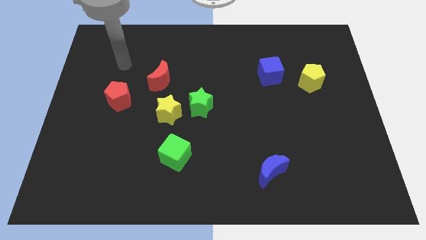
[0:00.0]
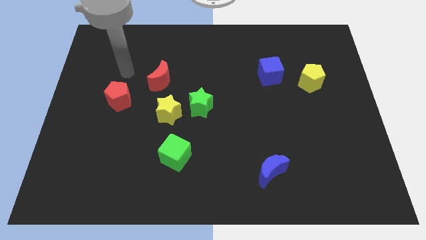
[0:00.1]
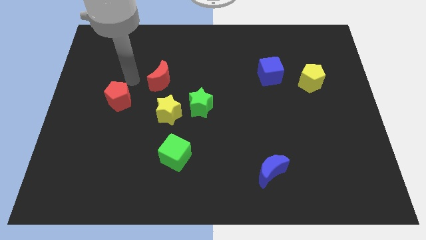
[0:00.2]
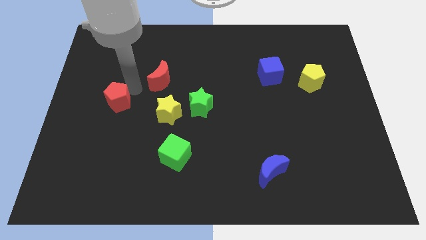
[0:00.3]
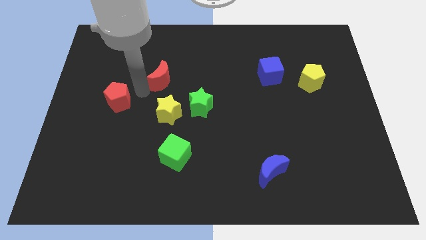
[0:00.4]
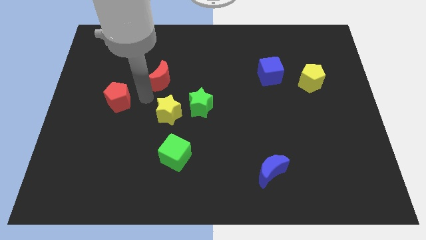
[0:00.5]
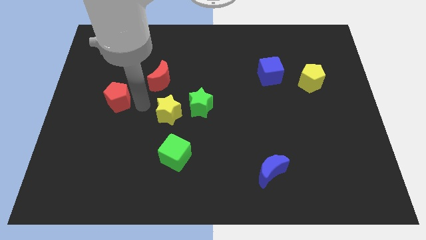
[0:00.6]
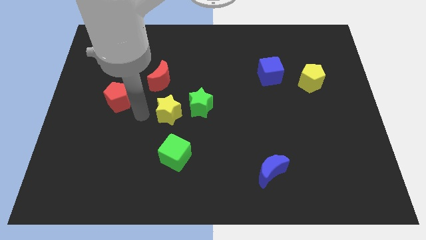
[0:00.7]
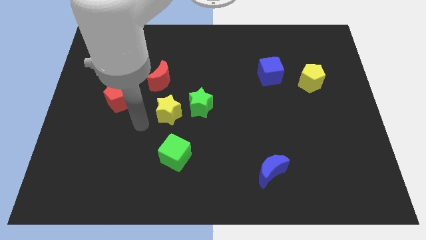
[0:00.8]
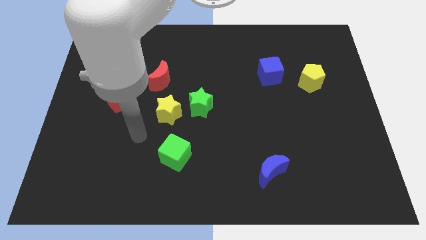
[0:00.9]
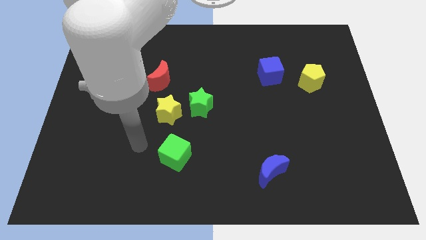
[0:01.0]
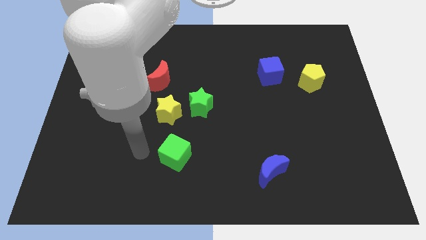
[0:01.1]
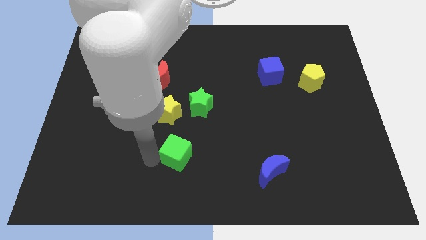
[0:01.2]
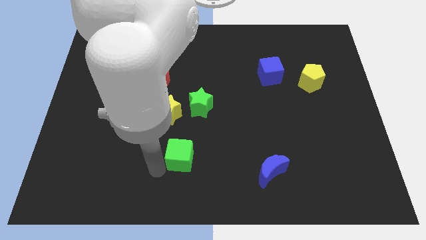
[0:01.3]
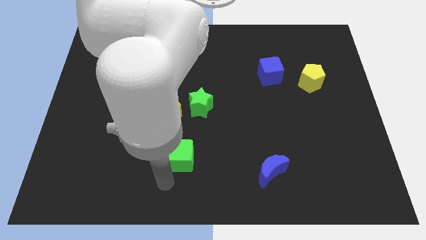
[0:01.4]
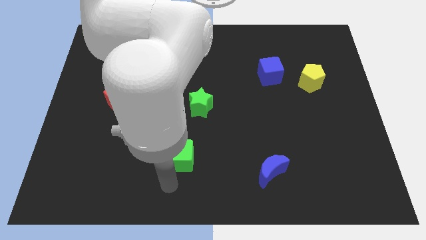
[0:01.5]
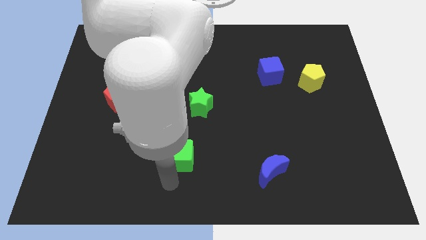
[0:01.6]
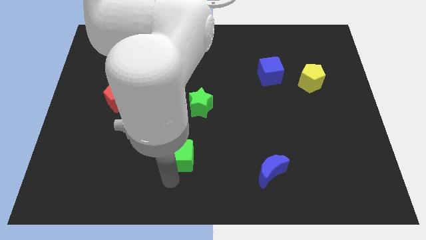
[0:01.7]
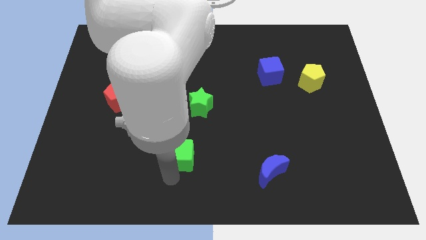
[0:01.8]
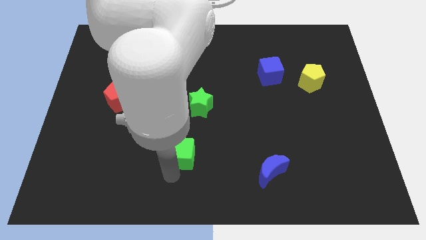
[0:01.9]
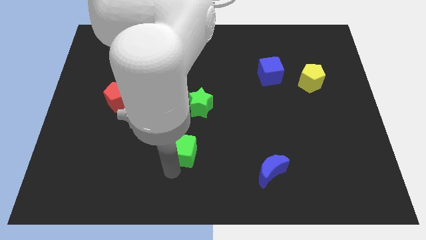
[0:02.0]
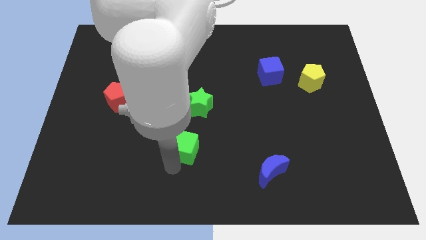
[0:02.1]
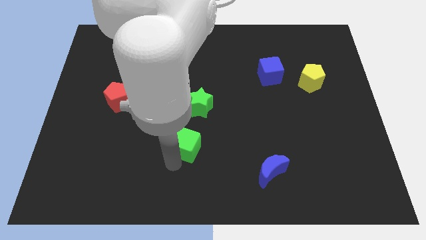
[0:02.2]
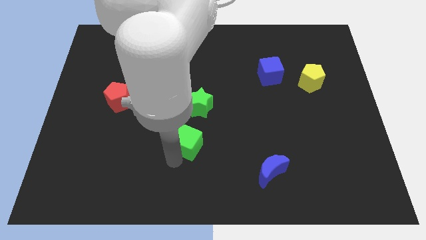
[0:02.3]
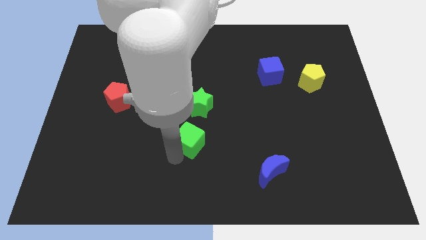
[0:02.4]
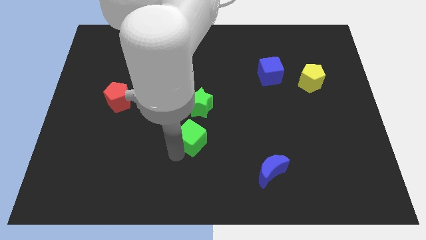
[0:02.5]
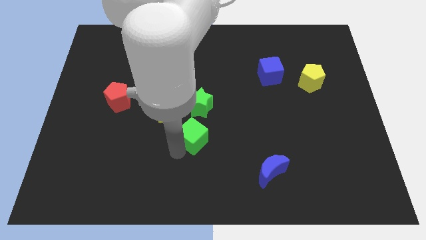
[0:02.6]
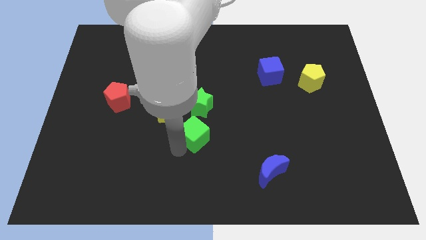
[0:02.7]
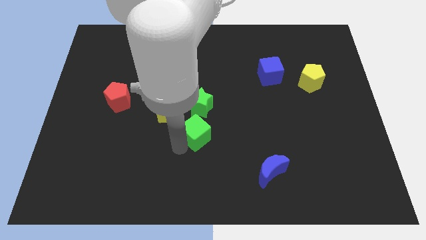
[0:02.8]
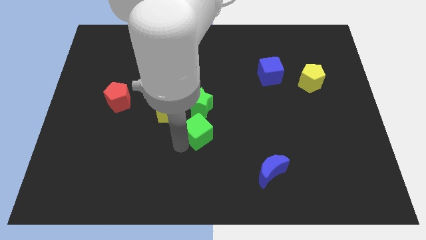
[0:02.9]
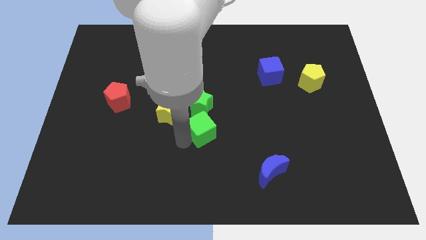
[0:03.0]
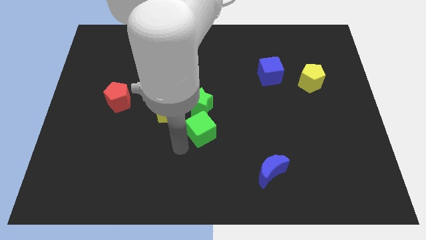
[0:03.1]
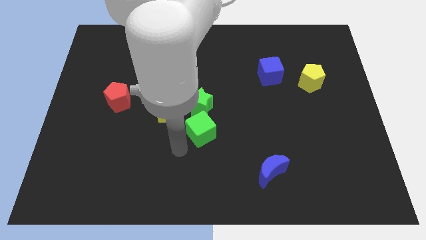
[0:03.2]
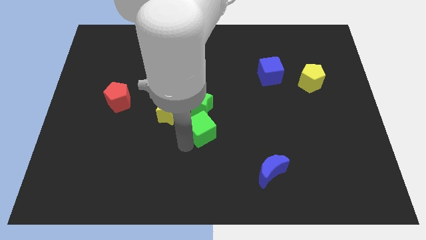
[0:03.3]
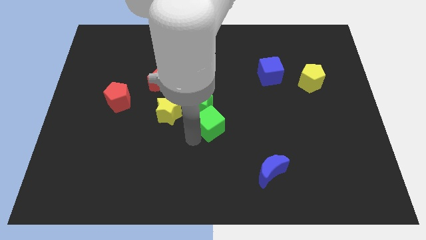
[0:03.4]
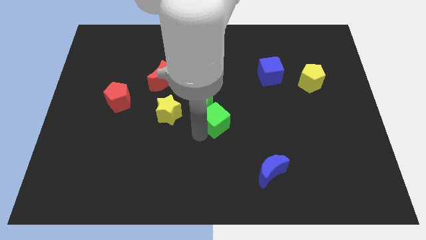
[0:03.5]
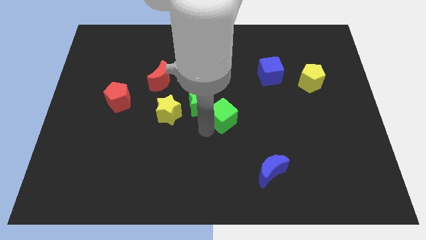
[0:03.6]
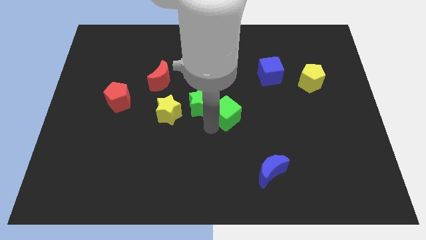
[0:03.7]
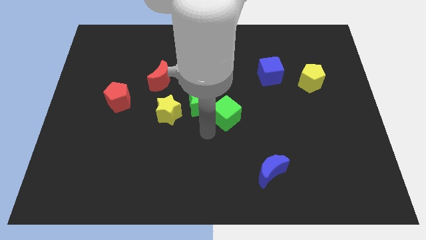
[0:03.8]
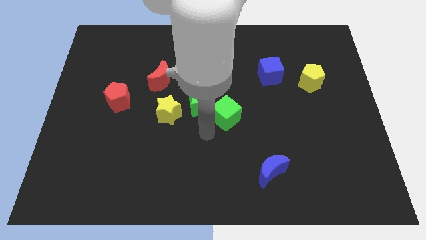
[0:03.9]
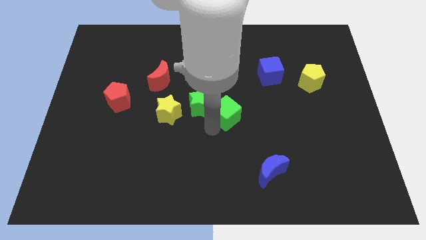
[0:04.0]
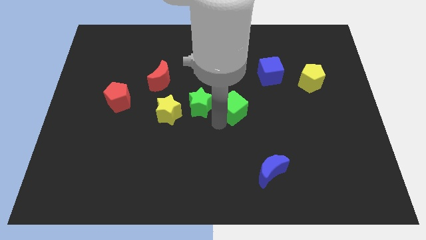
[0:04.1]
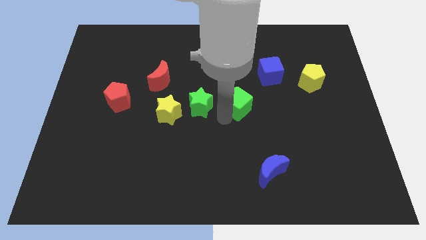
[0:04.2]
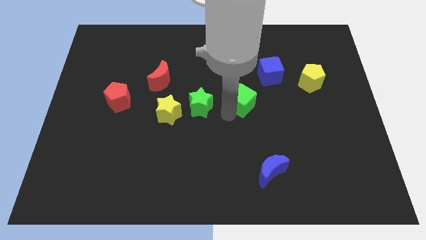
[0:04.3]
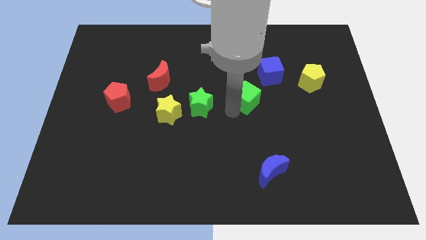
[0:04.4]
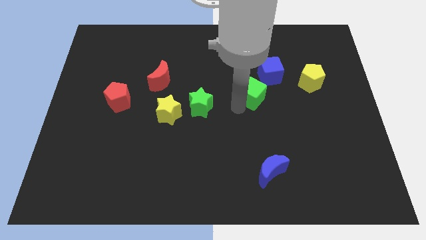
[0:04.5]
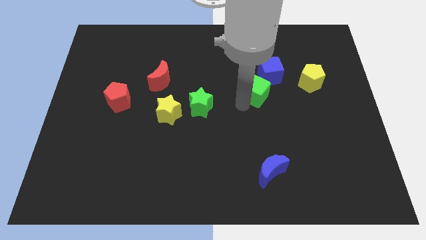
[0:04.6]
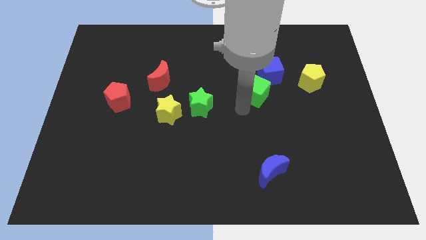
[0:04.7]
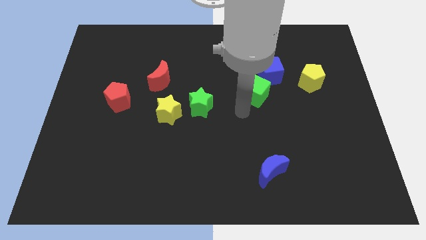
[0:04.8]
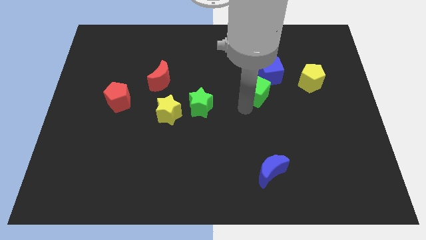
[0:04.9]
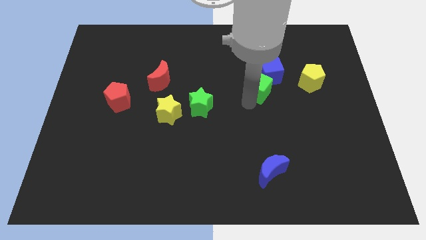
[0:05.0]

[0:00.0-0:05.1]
slide the green cube next to the blue cube

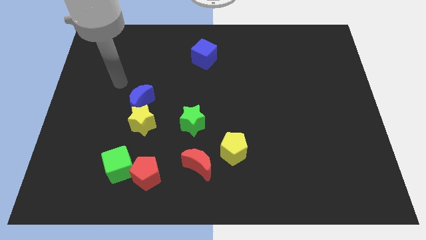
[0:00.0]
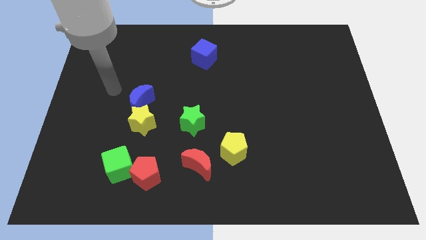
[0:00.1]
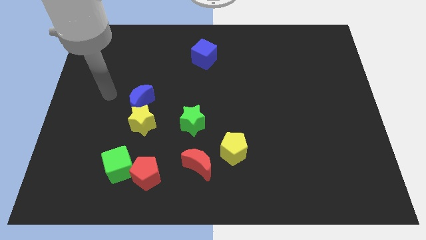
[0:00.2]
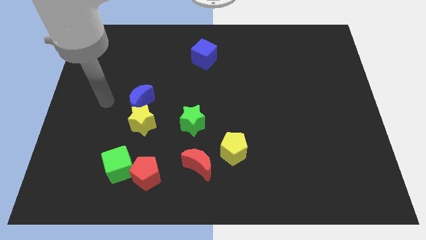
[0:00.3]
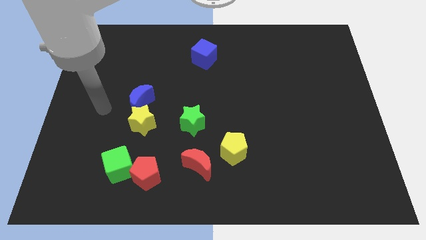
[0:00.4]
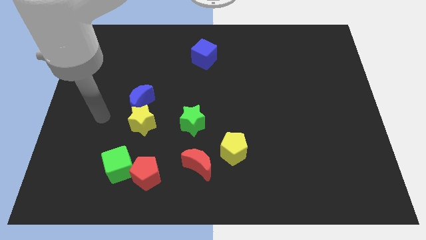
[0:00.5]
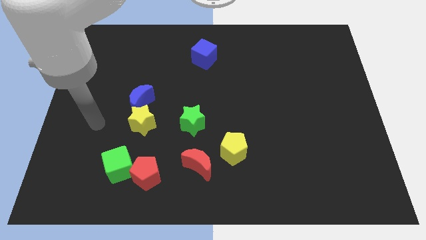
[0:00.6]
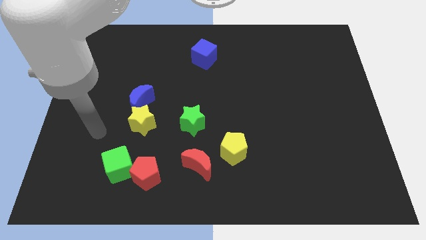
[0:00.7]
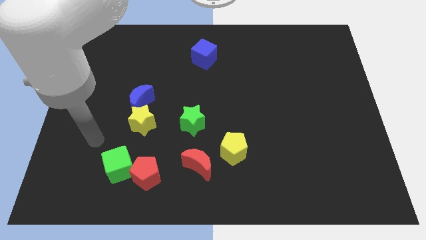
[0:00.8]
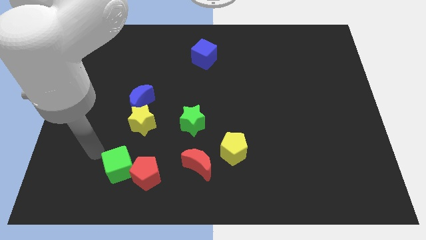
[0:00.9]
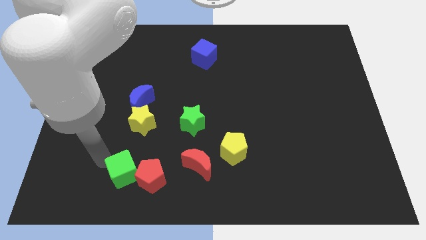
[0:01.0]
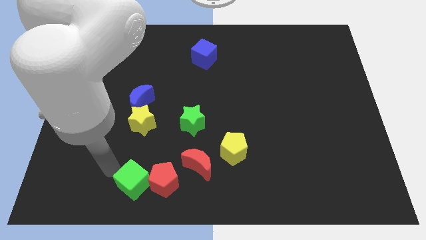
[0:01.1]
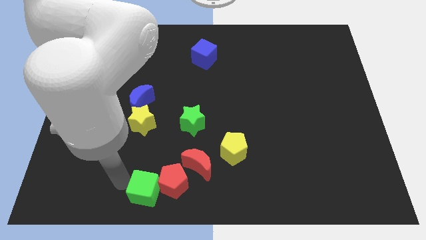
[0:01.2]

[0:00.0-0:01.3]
move the red pentagon towards the red moon

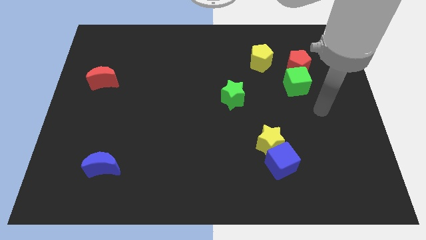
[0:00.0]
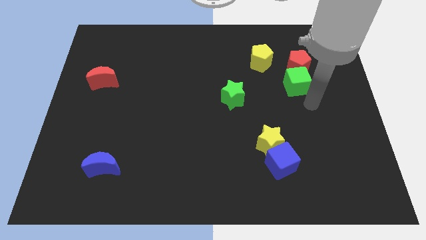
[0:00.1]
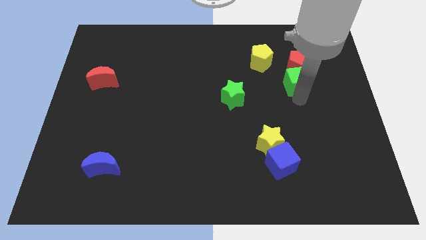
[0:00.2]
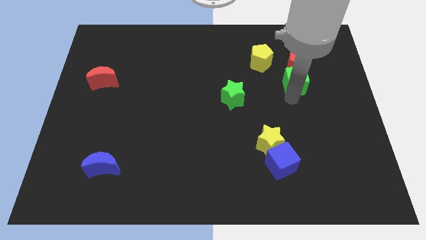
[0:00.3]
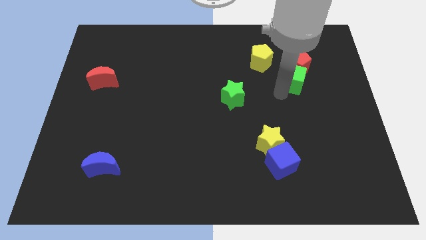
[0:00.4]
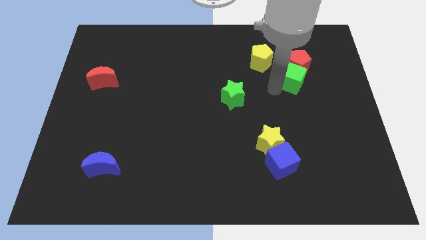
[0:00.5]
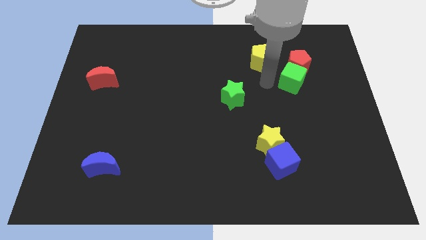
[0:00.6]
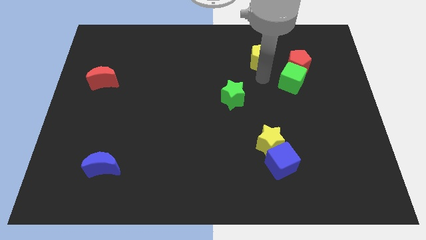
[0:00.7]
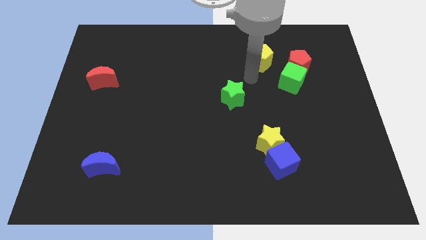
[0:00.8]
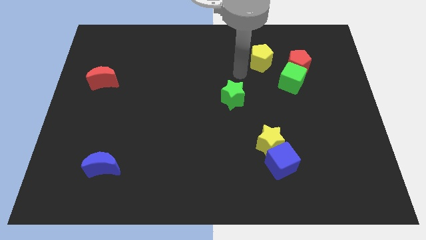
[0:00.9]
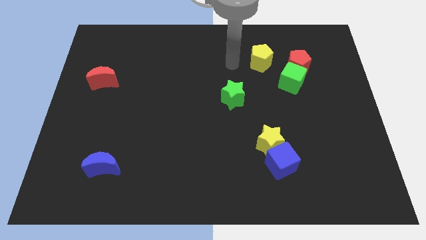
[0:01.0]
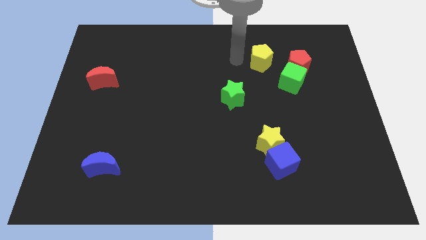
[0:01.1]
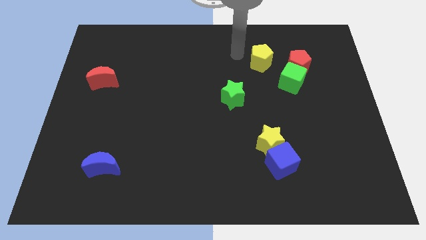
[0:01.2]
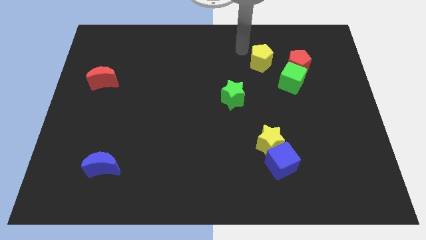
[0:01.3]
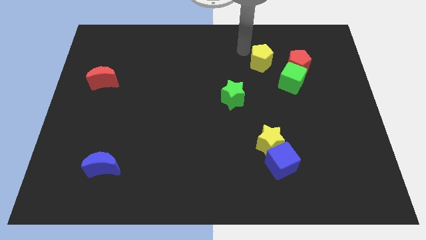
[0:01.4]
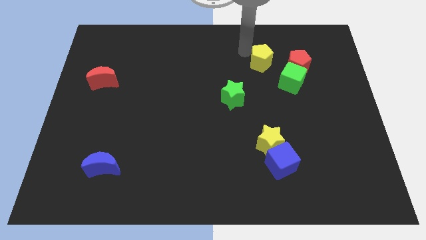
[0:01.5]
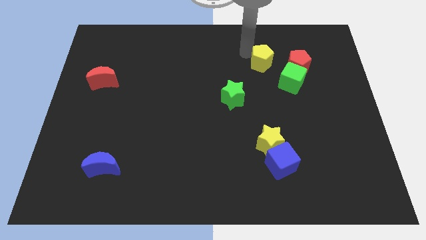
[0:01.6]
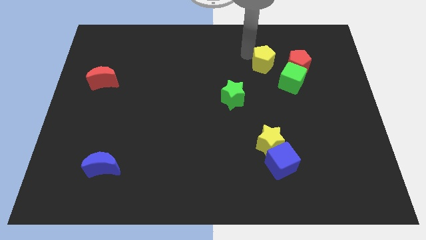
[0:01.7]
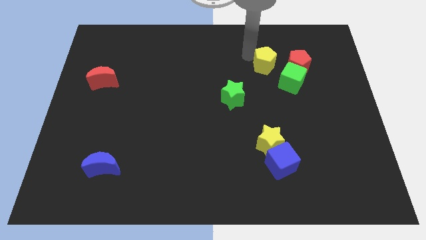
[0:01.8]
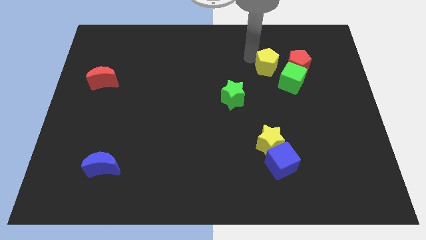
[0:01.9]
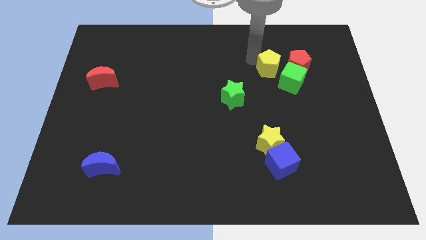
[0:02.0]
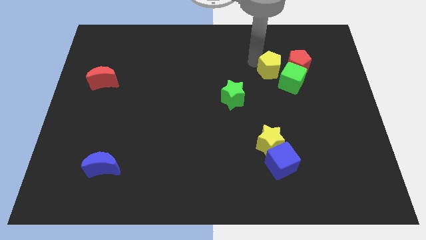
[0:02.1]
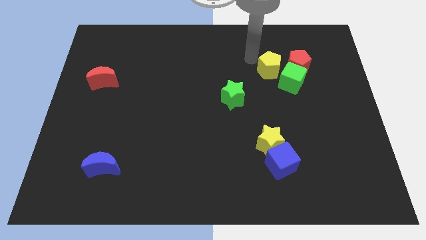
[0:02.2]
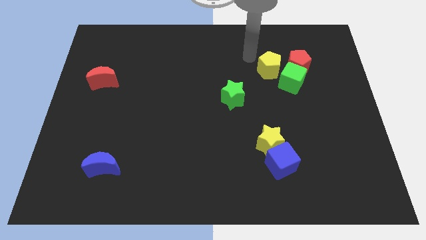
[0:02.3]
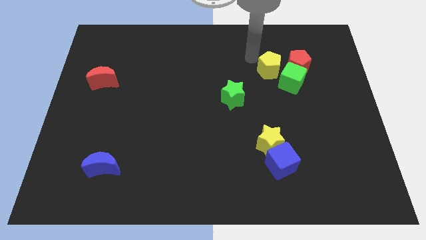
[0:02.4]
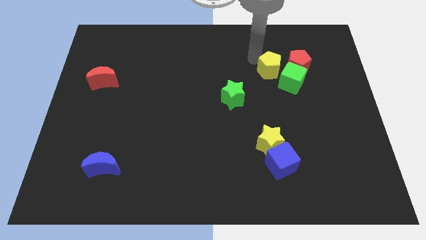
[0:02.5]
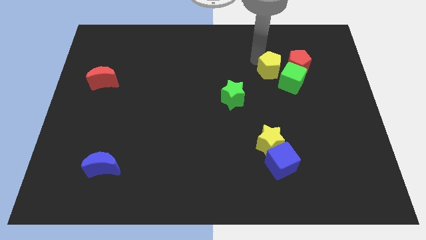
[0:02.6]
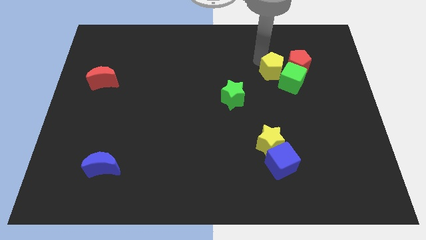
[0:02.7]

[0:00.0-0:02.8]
push the yellow pentagon towards the green cube
